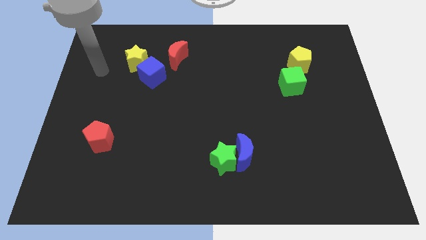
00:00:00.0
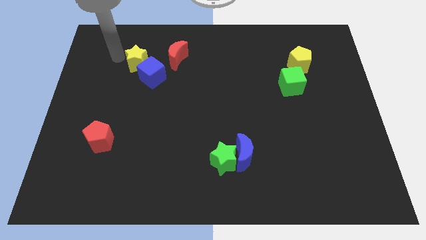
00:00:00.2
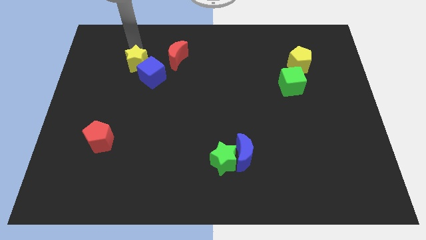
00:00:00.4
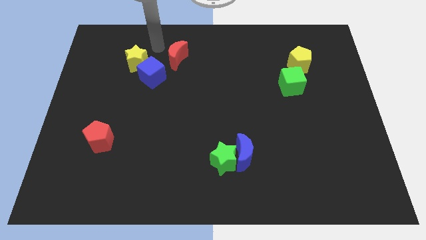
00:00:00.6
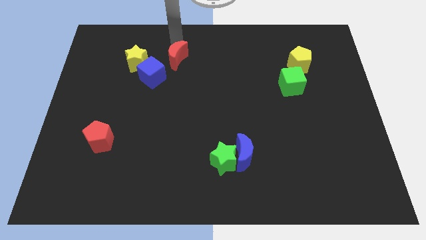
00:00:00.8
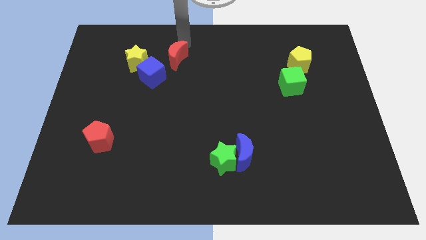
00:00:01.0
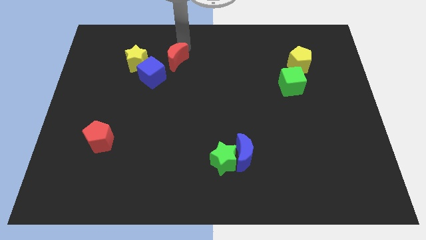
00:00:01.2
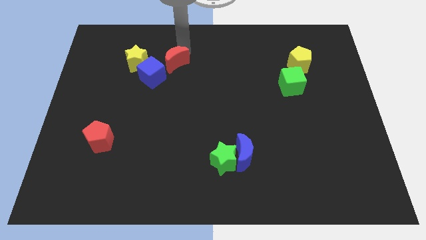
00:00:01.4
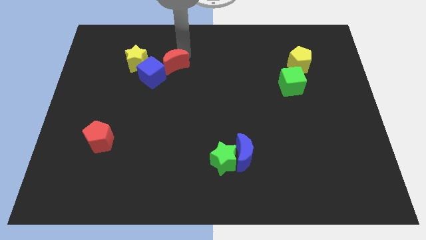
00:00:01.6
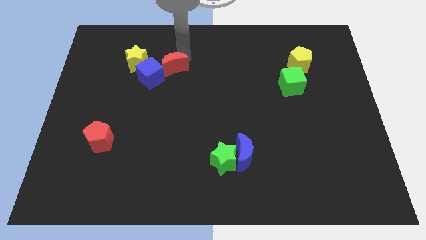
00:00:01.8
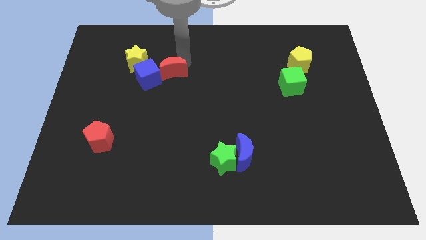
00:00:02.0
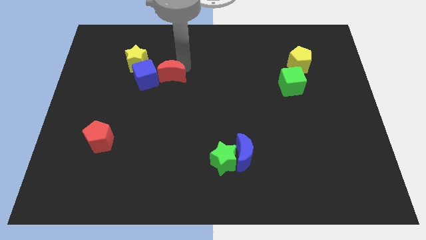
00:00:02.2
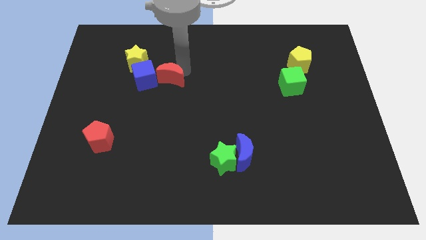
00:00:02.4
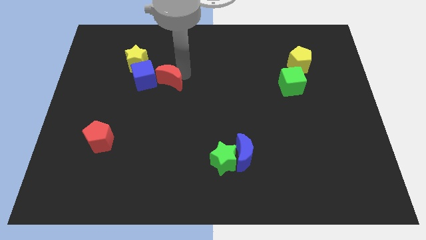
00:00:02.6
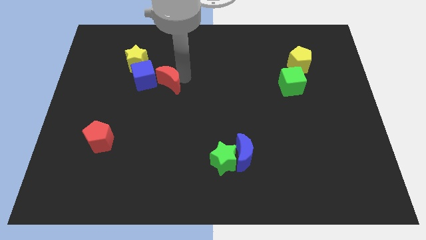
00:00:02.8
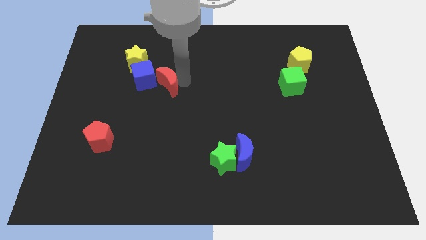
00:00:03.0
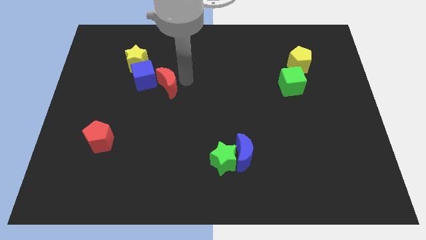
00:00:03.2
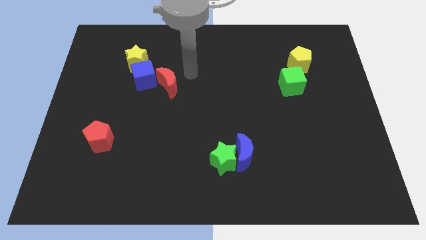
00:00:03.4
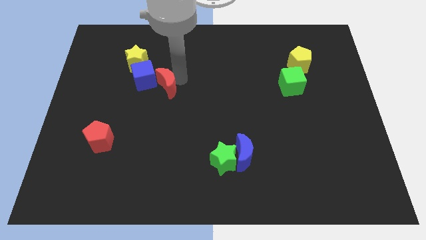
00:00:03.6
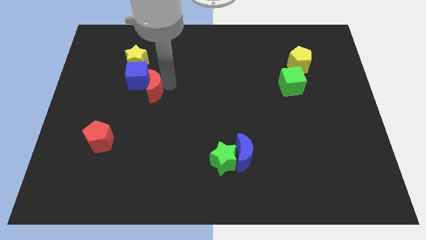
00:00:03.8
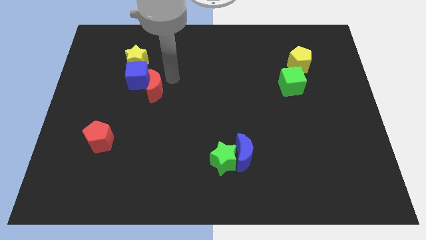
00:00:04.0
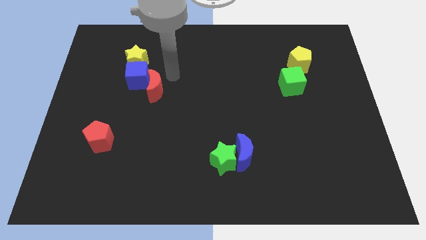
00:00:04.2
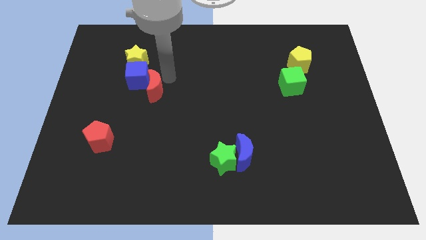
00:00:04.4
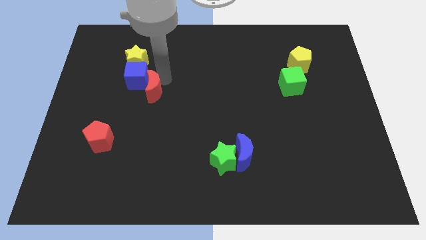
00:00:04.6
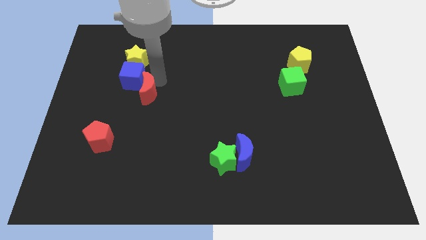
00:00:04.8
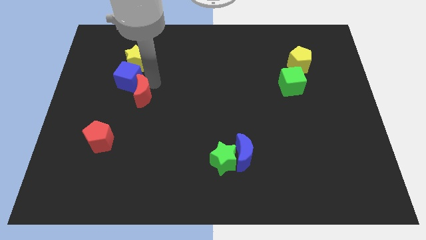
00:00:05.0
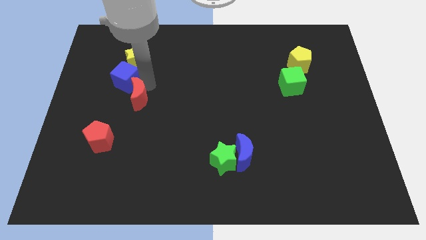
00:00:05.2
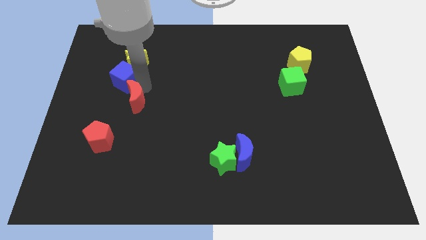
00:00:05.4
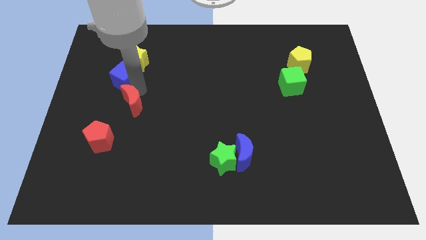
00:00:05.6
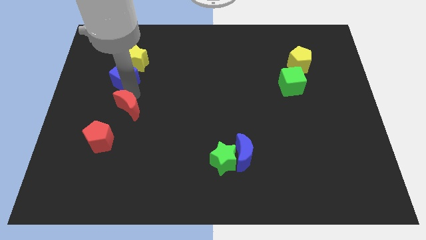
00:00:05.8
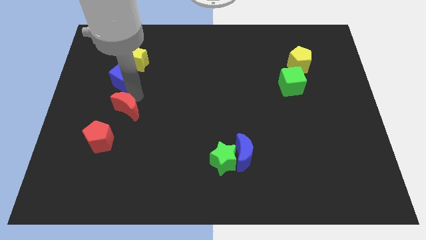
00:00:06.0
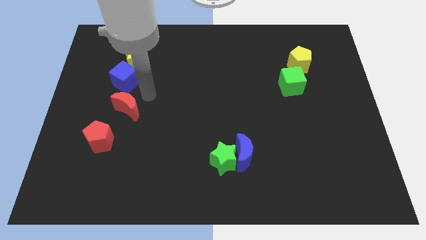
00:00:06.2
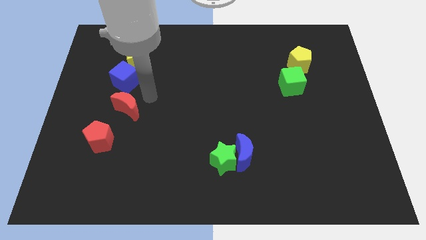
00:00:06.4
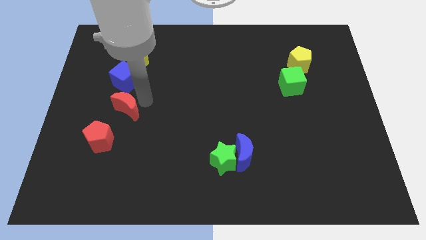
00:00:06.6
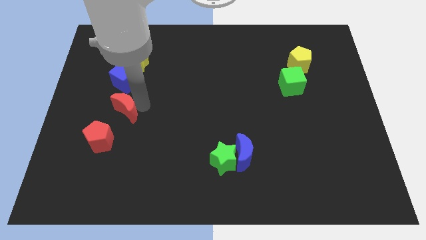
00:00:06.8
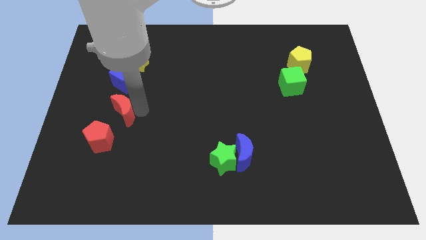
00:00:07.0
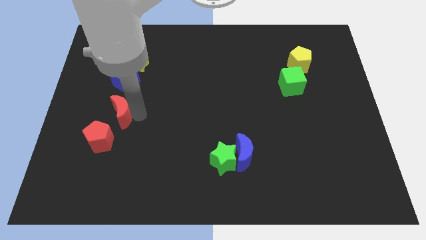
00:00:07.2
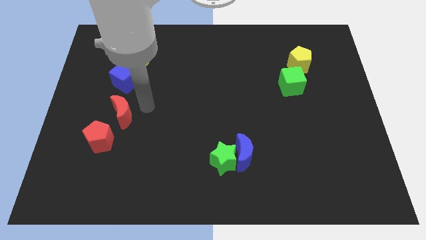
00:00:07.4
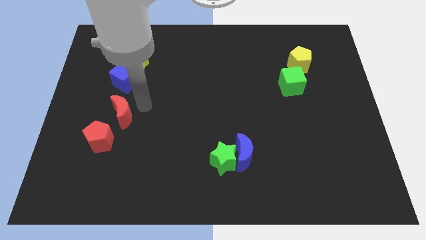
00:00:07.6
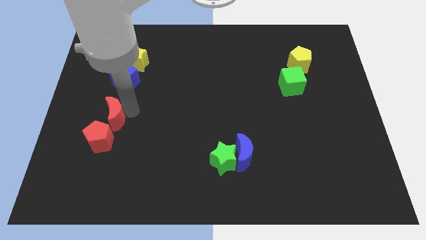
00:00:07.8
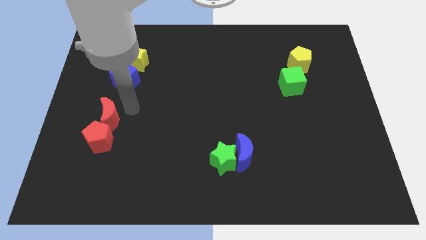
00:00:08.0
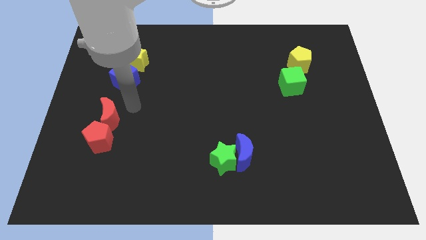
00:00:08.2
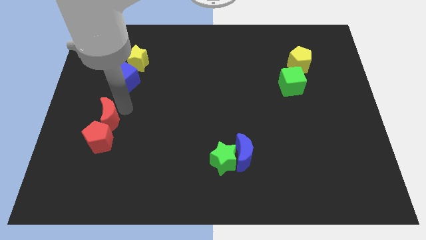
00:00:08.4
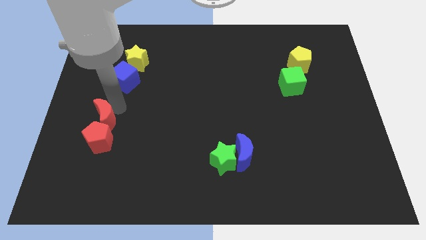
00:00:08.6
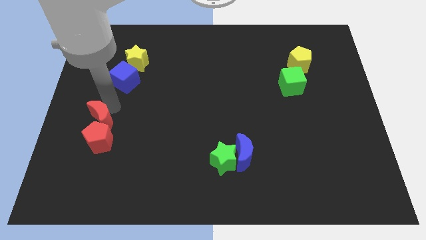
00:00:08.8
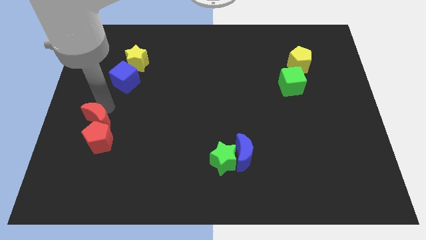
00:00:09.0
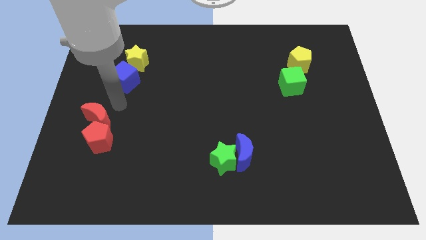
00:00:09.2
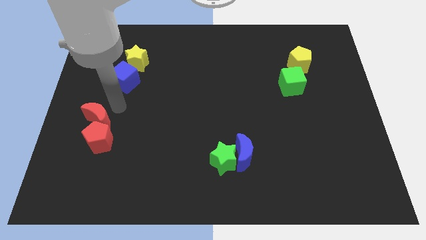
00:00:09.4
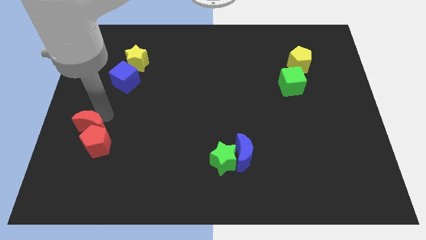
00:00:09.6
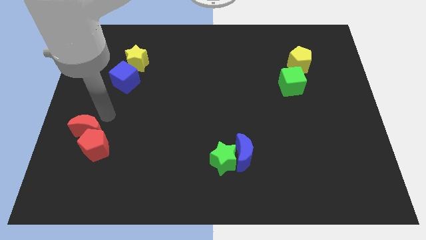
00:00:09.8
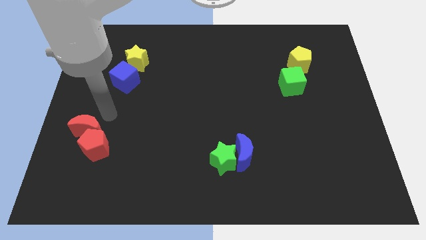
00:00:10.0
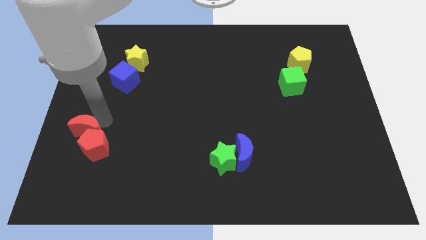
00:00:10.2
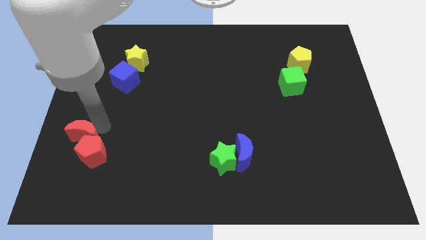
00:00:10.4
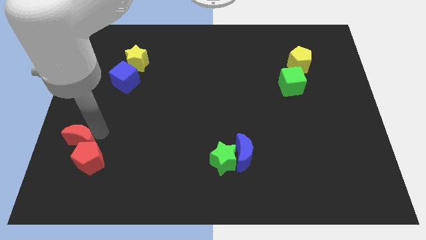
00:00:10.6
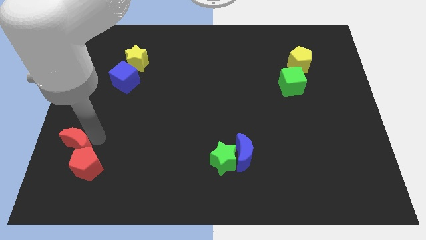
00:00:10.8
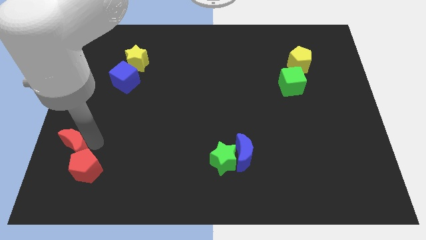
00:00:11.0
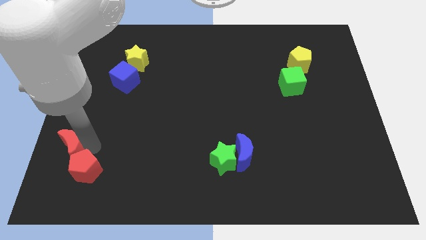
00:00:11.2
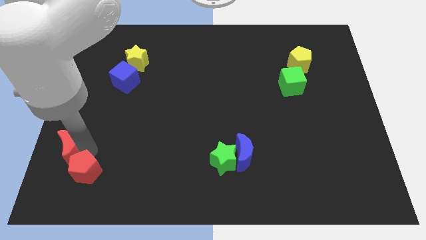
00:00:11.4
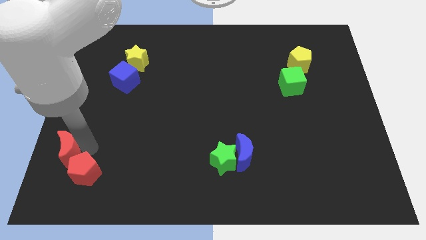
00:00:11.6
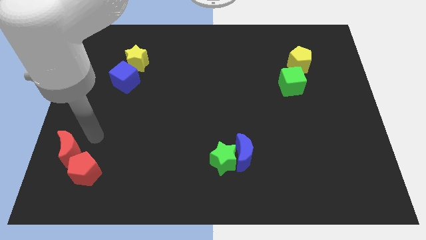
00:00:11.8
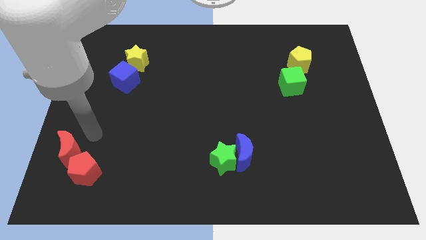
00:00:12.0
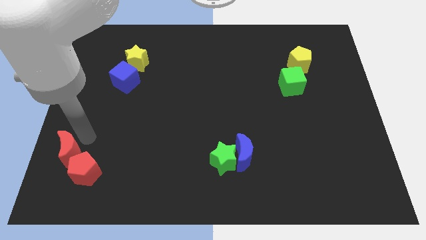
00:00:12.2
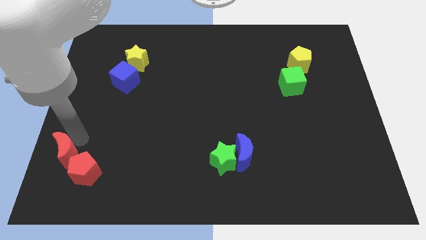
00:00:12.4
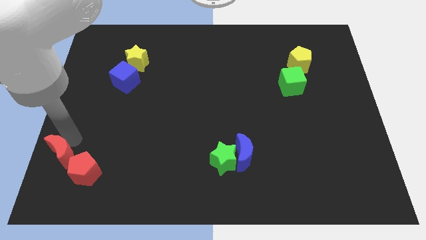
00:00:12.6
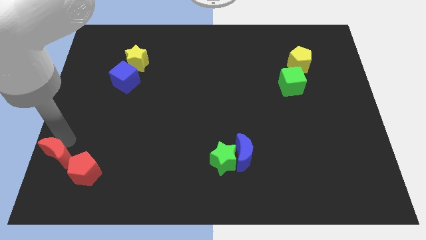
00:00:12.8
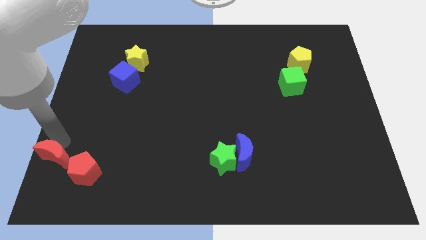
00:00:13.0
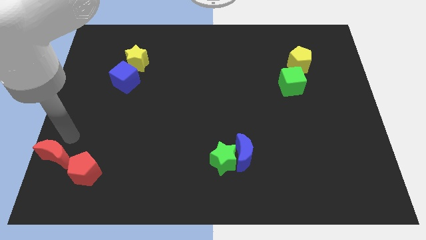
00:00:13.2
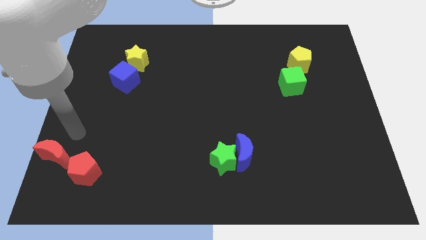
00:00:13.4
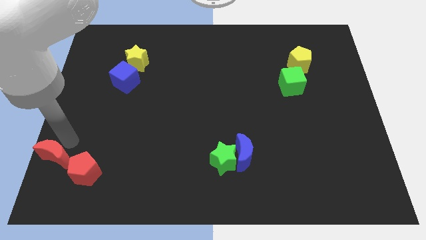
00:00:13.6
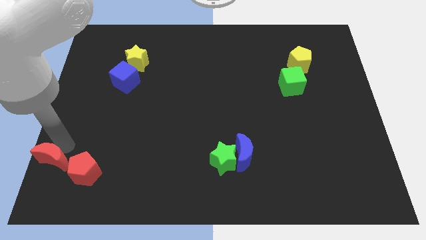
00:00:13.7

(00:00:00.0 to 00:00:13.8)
put the red moon to the bottom left corner
